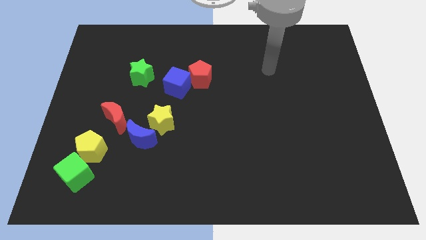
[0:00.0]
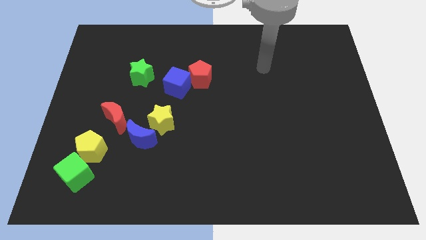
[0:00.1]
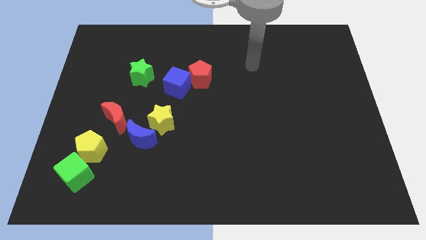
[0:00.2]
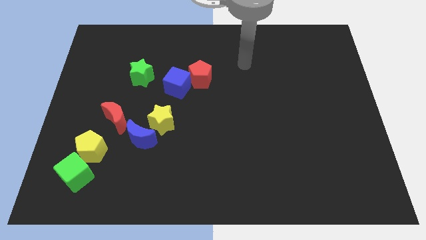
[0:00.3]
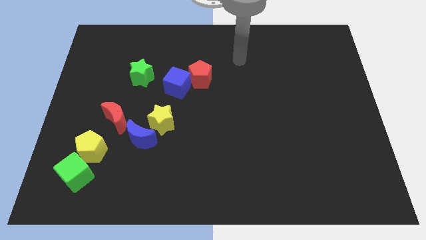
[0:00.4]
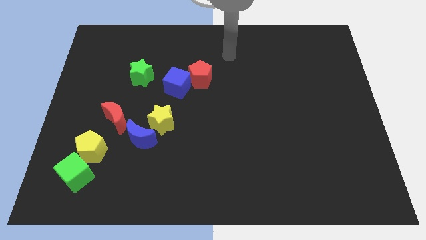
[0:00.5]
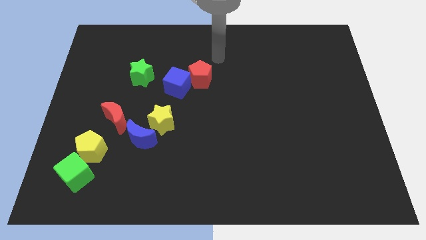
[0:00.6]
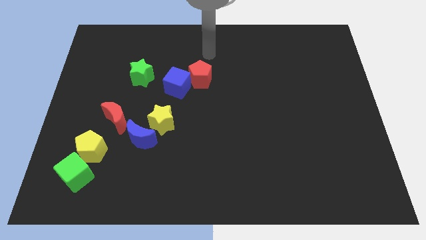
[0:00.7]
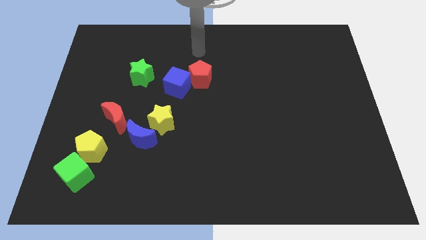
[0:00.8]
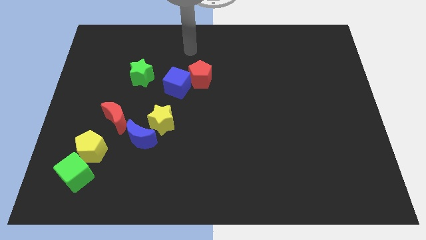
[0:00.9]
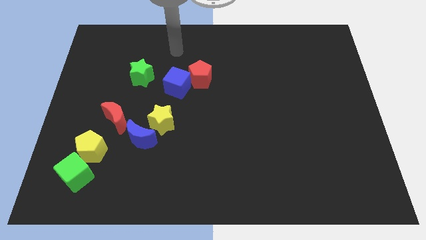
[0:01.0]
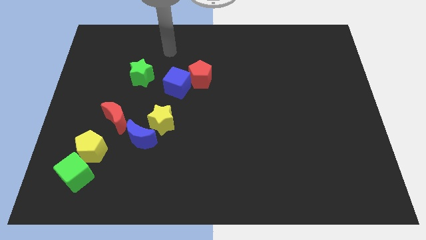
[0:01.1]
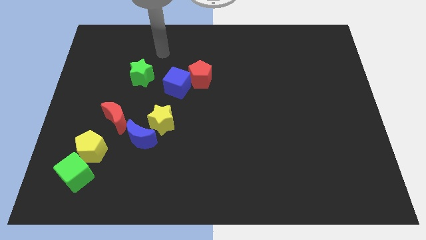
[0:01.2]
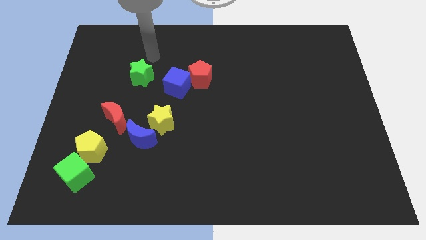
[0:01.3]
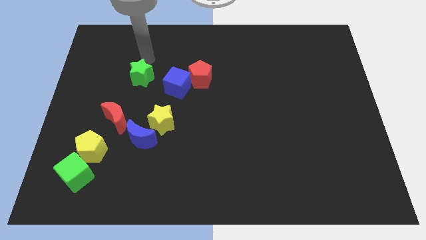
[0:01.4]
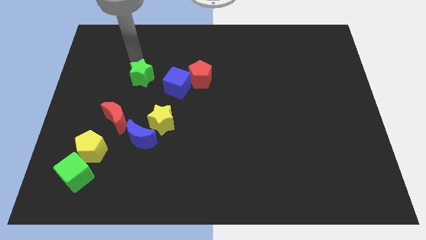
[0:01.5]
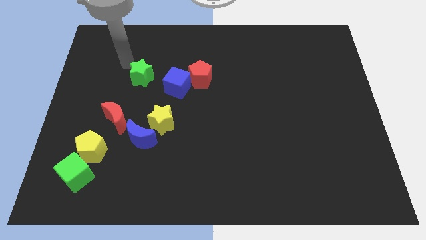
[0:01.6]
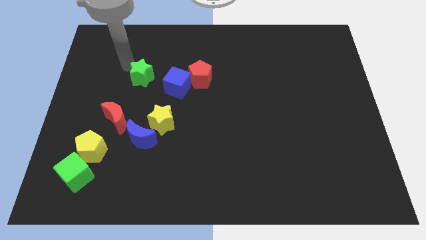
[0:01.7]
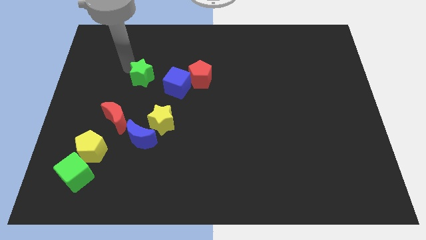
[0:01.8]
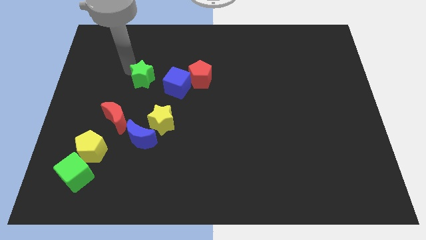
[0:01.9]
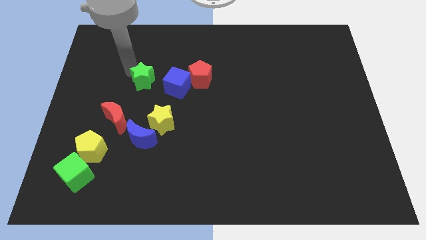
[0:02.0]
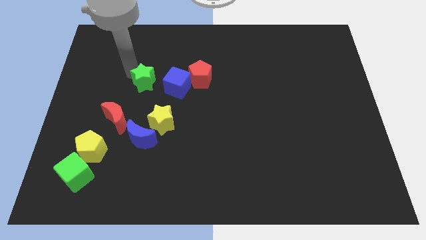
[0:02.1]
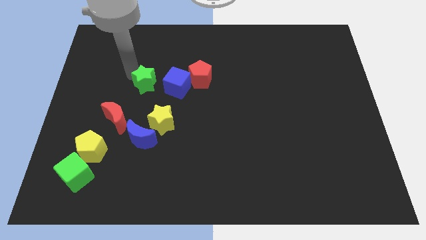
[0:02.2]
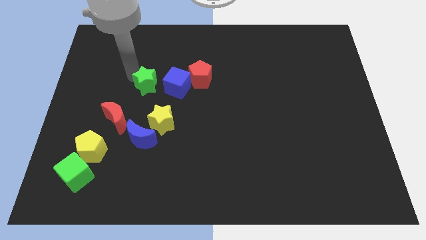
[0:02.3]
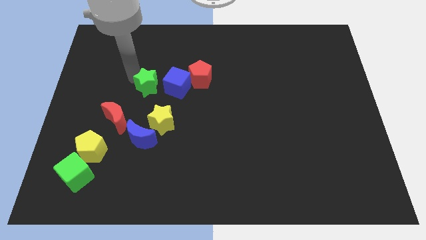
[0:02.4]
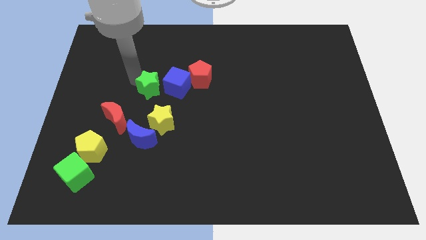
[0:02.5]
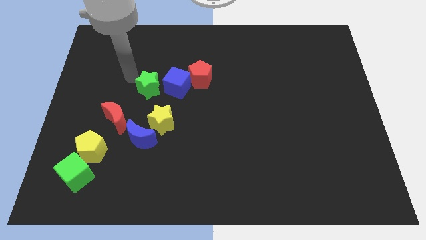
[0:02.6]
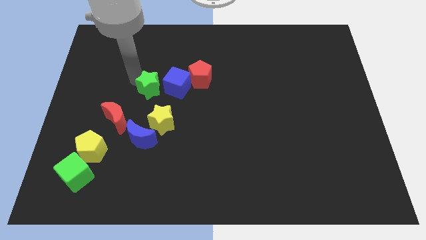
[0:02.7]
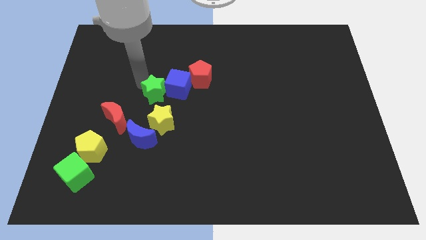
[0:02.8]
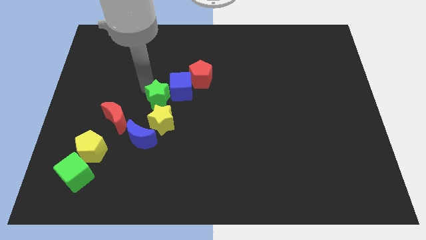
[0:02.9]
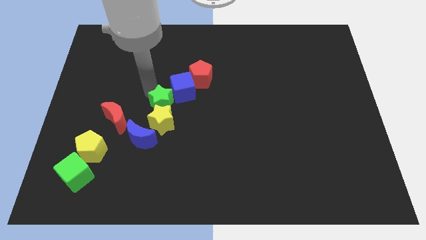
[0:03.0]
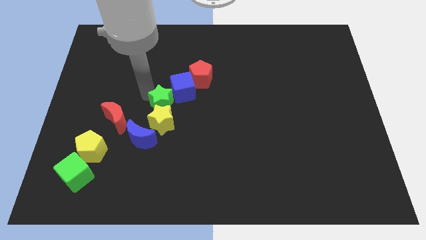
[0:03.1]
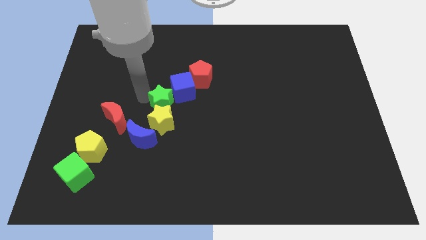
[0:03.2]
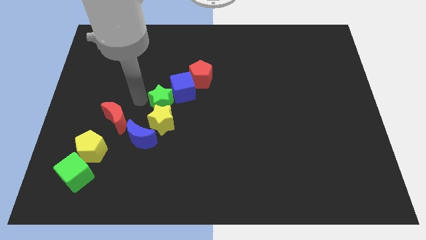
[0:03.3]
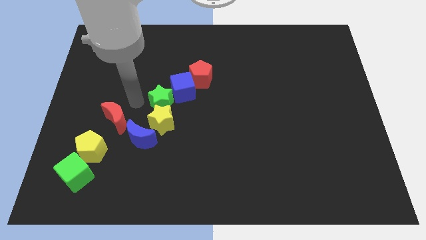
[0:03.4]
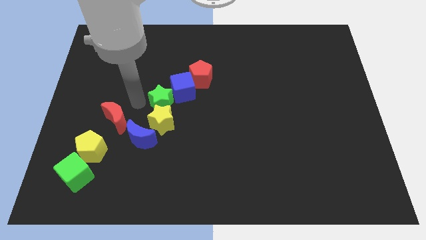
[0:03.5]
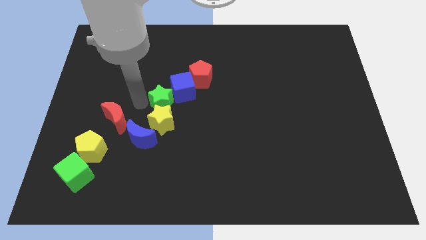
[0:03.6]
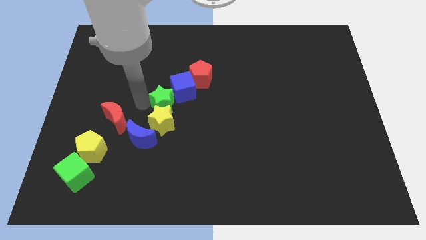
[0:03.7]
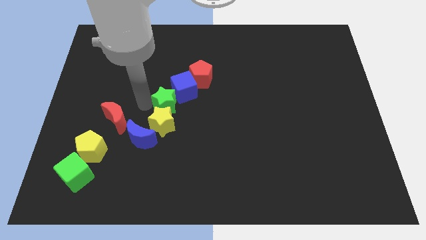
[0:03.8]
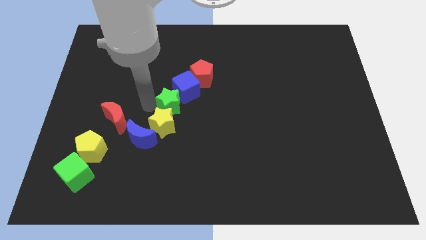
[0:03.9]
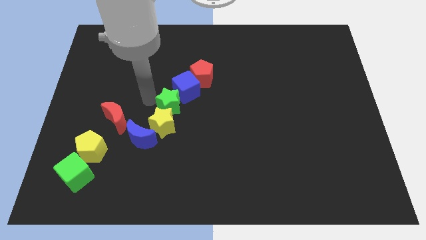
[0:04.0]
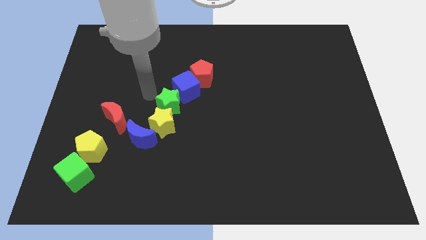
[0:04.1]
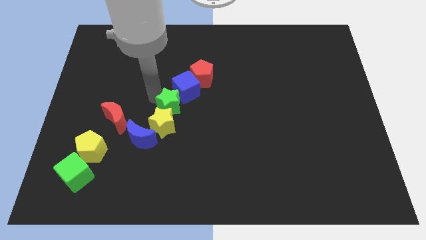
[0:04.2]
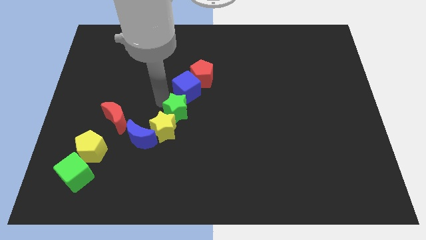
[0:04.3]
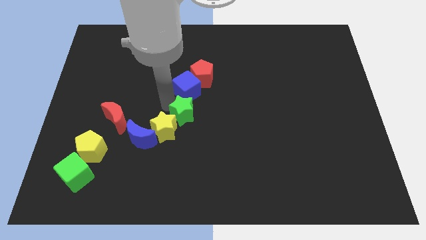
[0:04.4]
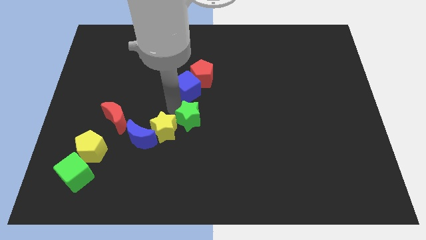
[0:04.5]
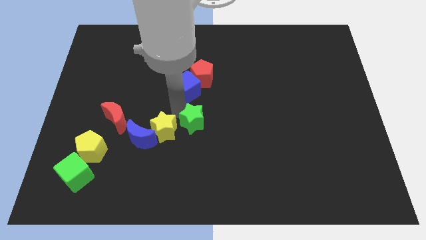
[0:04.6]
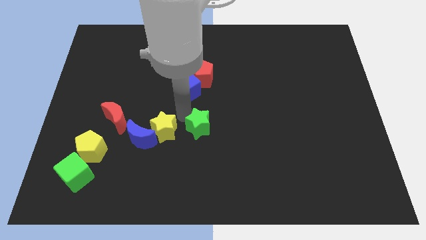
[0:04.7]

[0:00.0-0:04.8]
slide the green star diagonally downwards and right

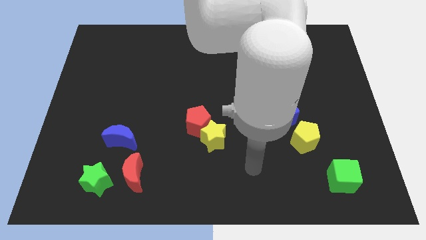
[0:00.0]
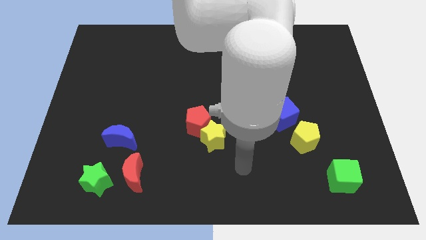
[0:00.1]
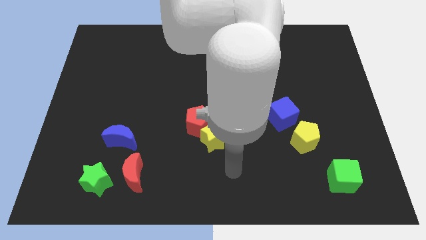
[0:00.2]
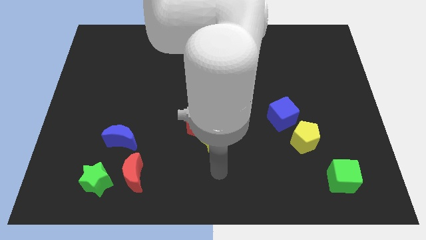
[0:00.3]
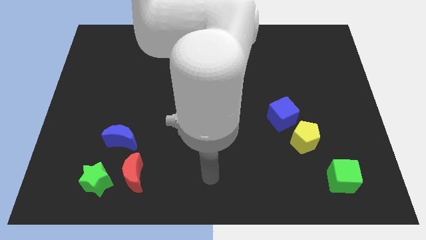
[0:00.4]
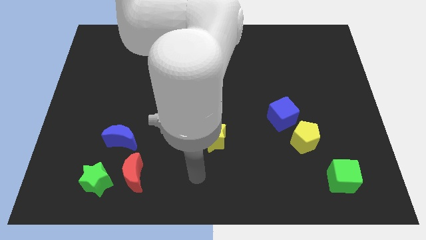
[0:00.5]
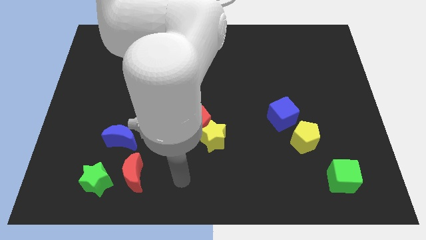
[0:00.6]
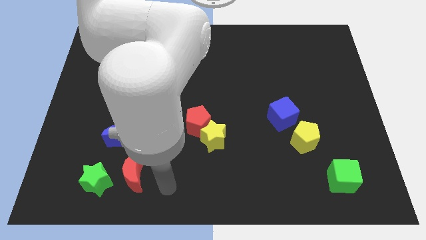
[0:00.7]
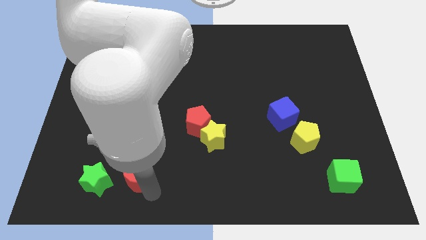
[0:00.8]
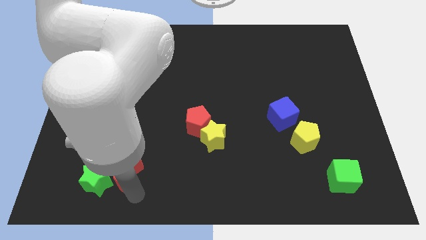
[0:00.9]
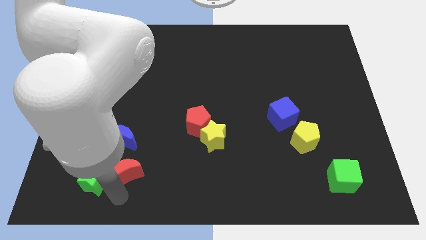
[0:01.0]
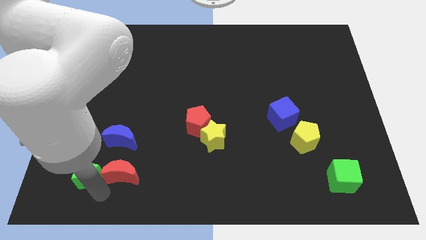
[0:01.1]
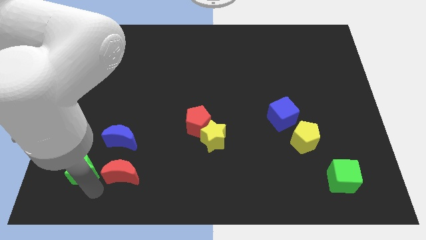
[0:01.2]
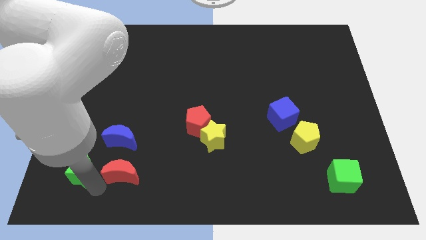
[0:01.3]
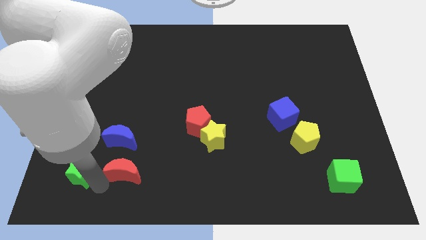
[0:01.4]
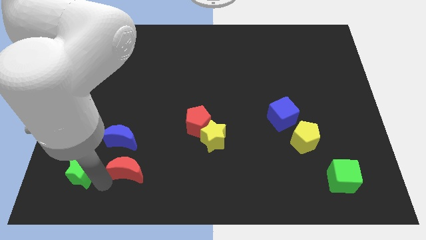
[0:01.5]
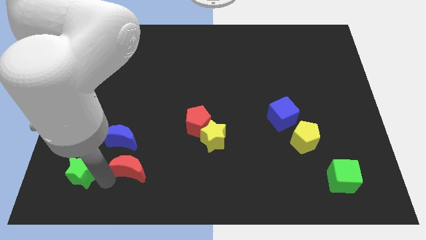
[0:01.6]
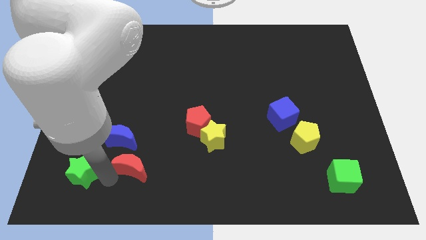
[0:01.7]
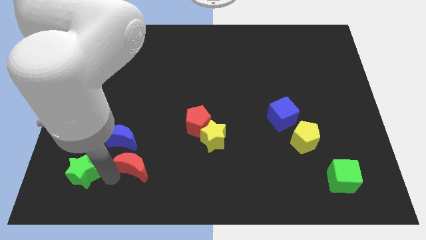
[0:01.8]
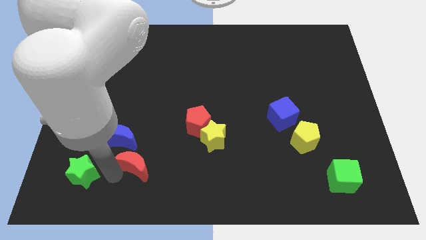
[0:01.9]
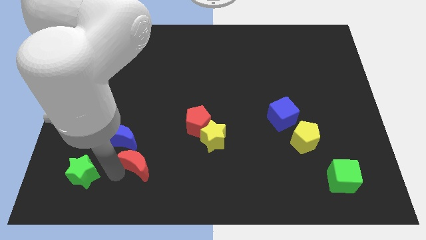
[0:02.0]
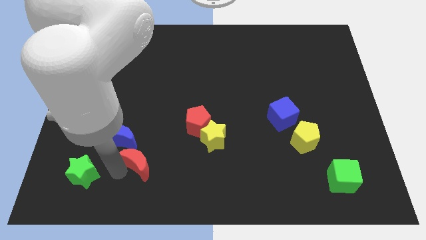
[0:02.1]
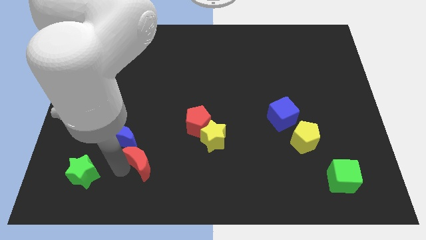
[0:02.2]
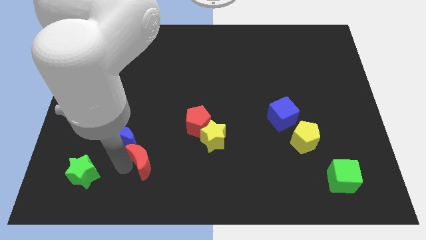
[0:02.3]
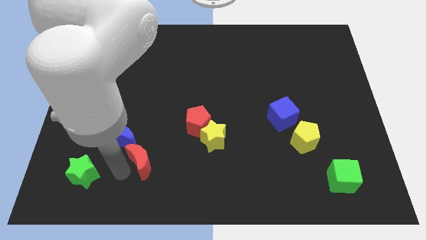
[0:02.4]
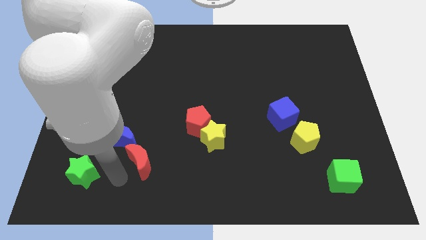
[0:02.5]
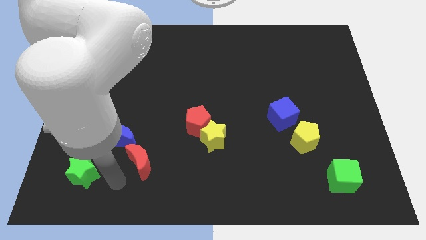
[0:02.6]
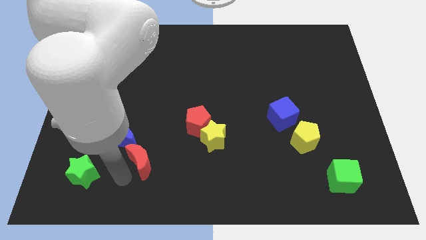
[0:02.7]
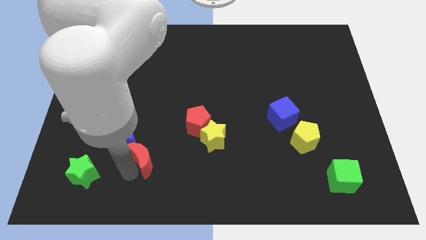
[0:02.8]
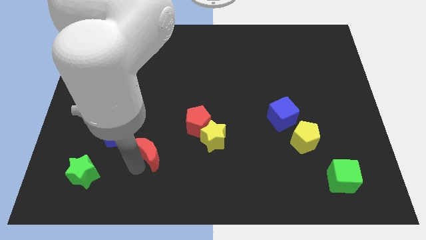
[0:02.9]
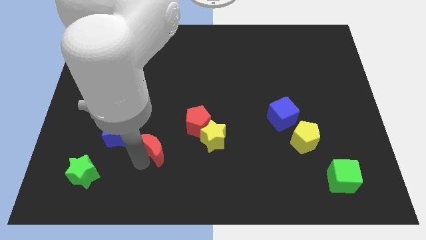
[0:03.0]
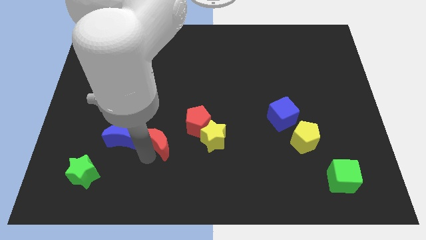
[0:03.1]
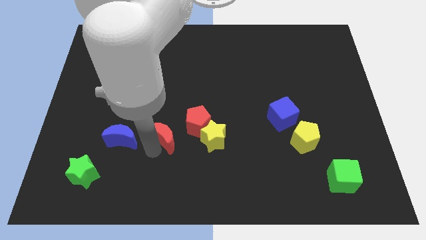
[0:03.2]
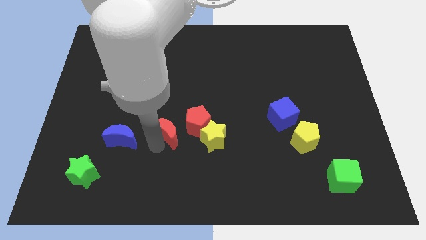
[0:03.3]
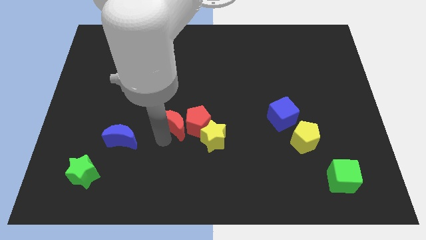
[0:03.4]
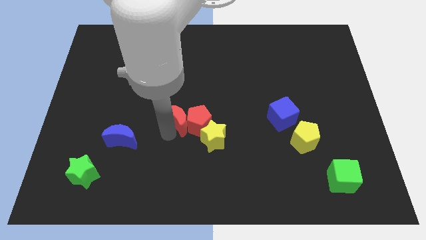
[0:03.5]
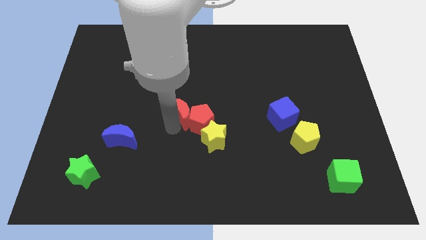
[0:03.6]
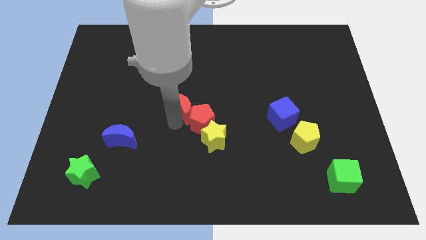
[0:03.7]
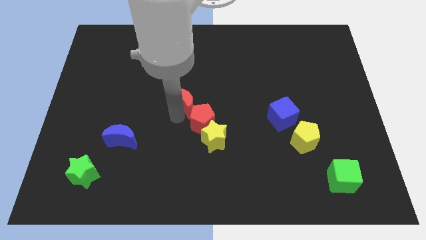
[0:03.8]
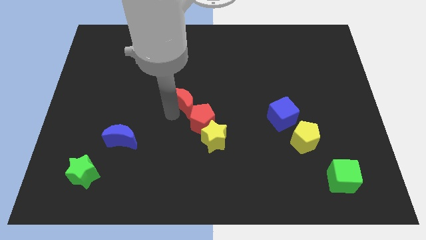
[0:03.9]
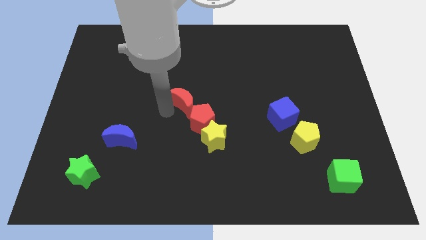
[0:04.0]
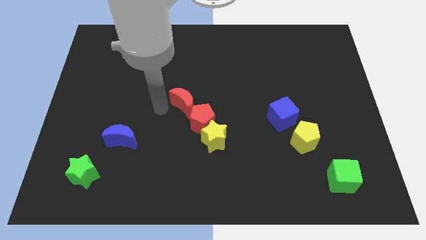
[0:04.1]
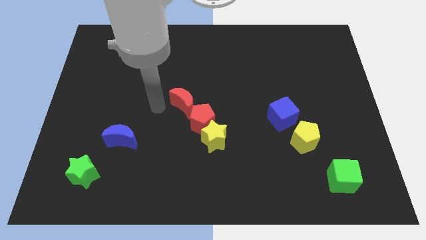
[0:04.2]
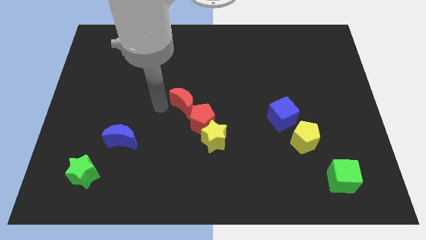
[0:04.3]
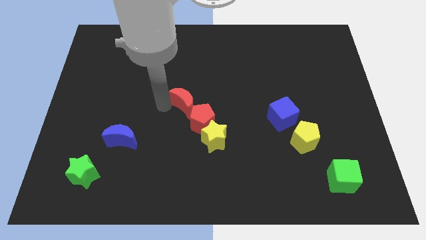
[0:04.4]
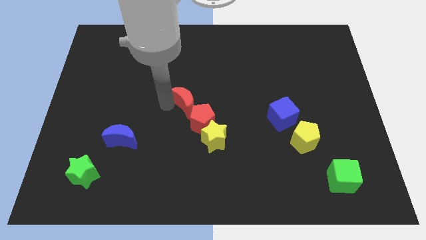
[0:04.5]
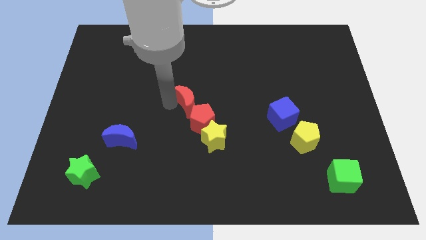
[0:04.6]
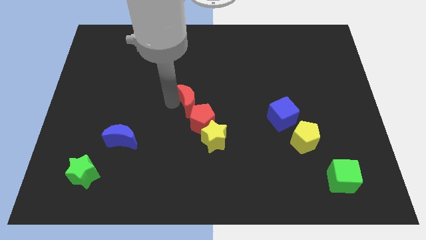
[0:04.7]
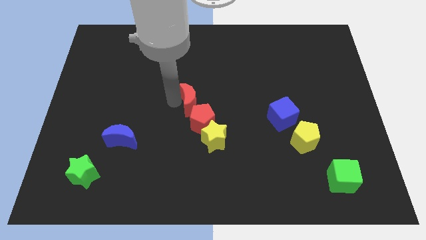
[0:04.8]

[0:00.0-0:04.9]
move the red moon diagonally up and right
